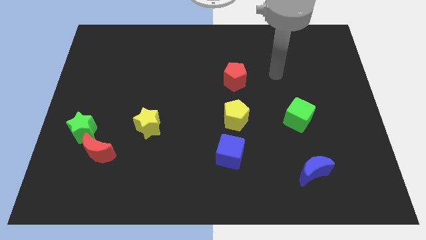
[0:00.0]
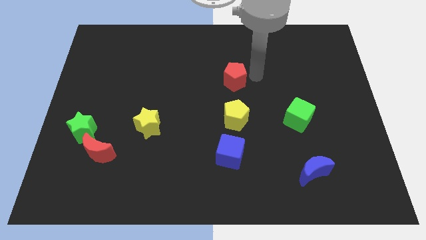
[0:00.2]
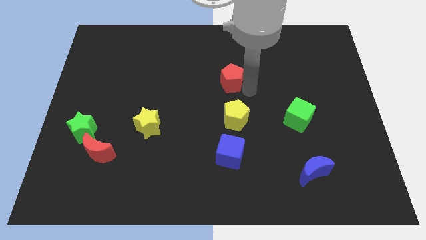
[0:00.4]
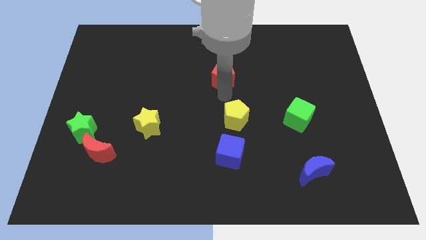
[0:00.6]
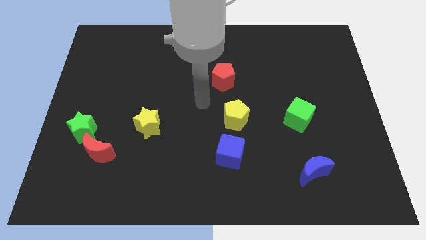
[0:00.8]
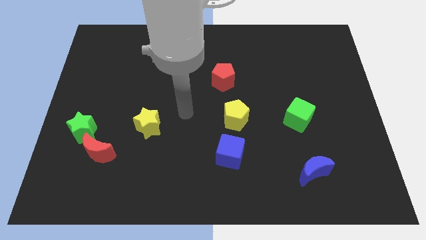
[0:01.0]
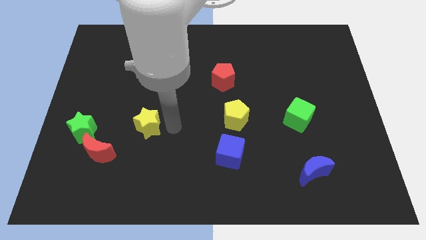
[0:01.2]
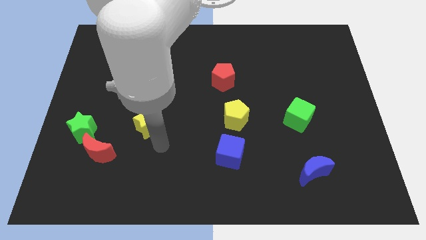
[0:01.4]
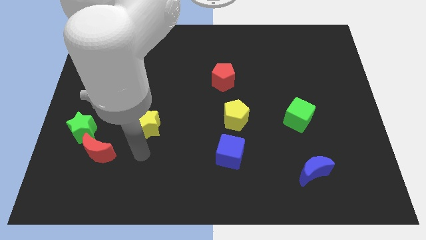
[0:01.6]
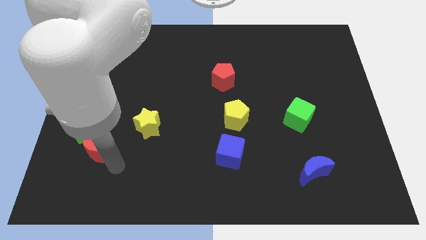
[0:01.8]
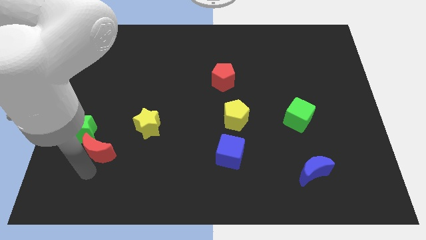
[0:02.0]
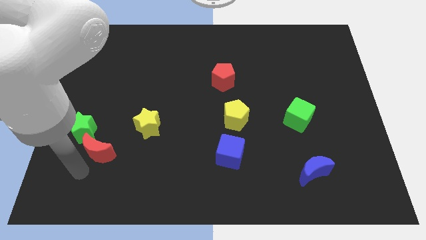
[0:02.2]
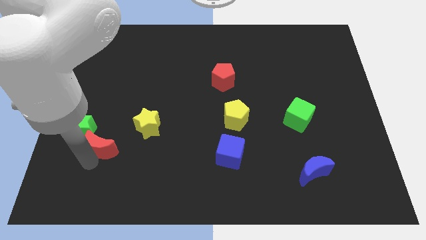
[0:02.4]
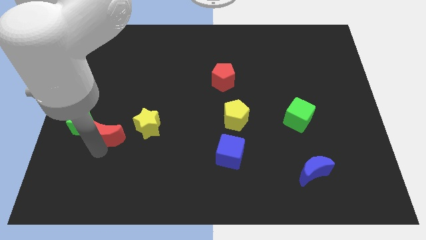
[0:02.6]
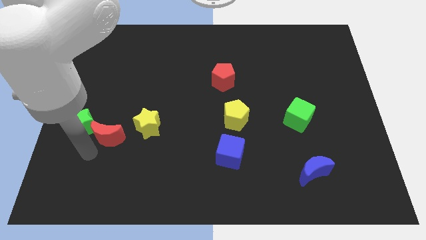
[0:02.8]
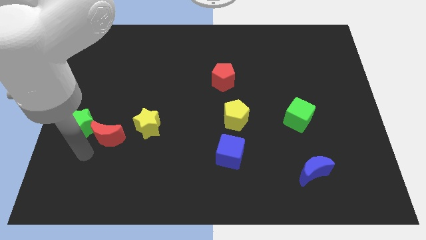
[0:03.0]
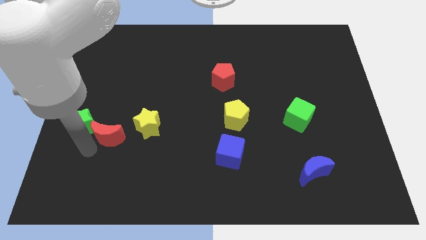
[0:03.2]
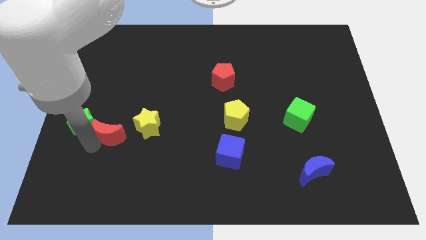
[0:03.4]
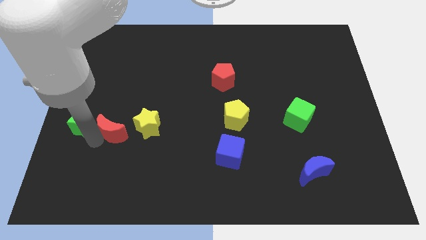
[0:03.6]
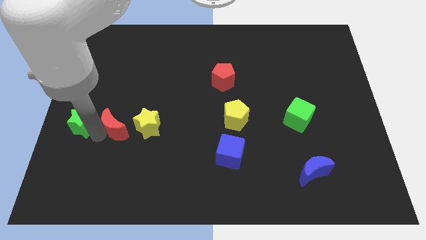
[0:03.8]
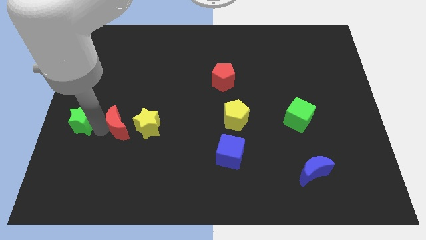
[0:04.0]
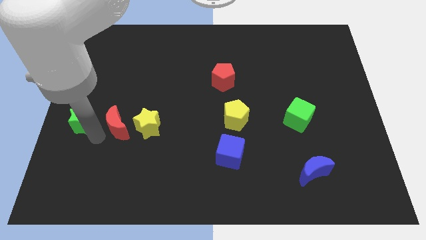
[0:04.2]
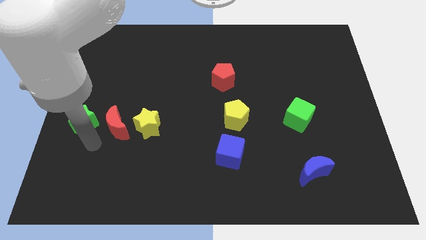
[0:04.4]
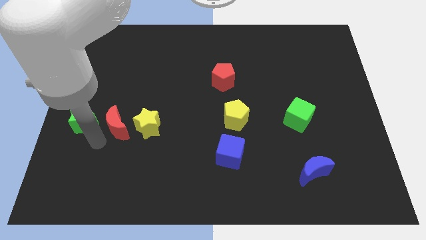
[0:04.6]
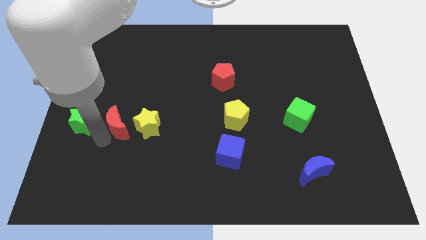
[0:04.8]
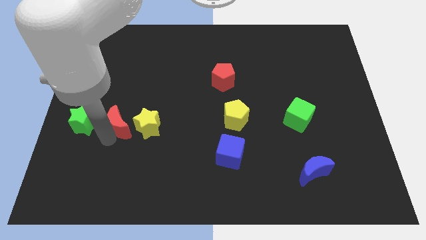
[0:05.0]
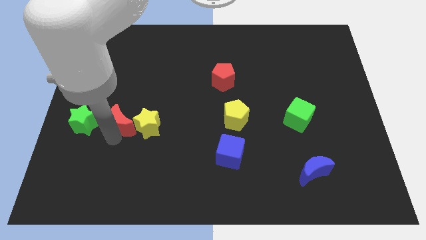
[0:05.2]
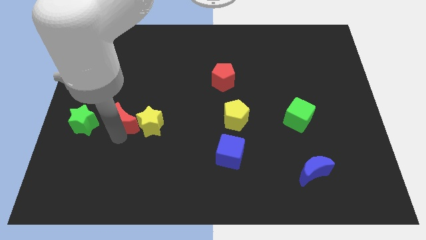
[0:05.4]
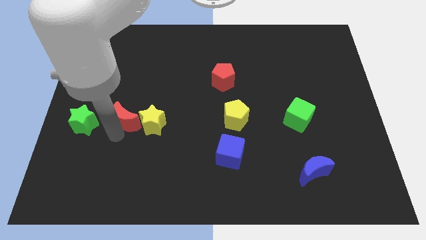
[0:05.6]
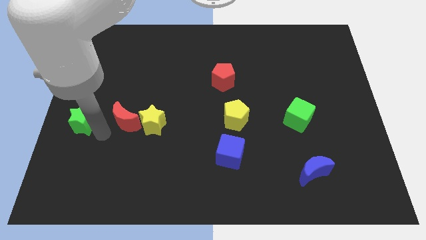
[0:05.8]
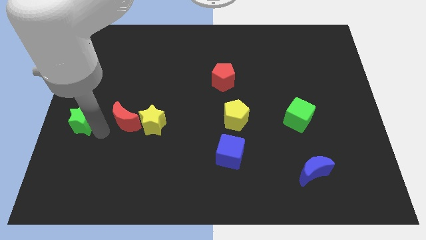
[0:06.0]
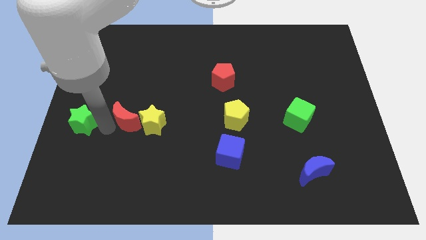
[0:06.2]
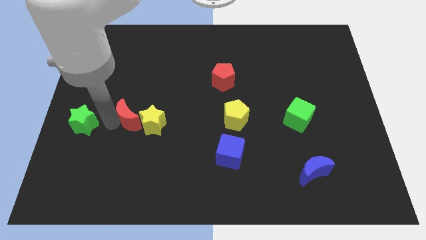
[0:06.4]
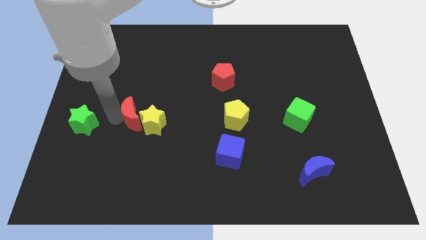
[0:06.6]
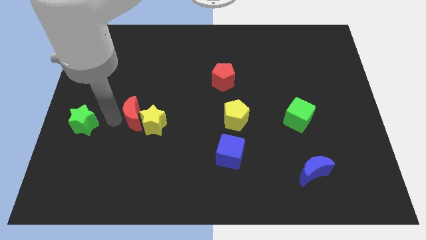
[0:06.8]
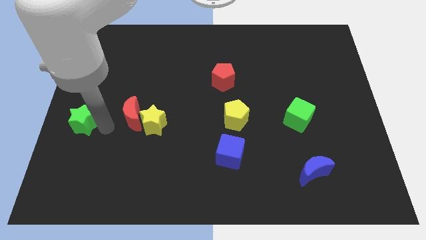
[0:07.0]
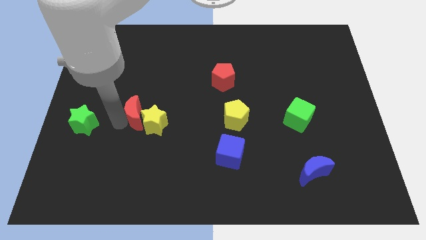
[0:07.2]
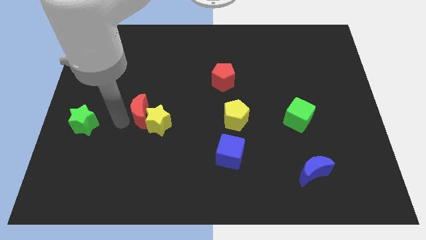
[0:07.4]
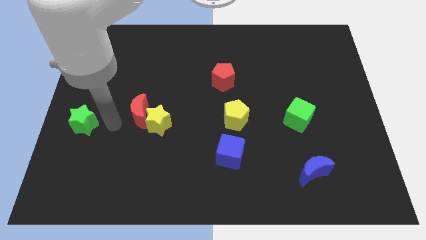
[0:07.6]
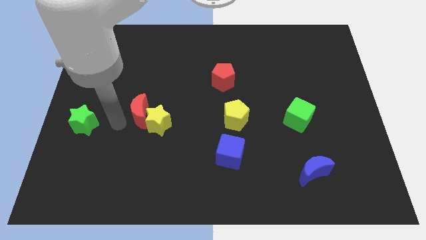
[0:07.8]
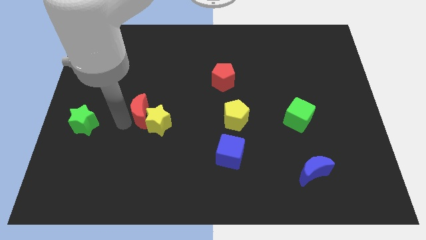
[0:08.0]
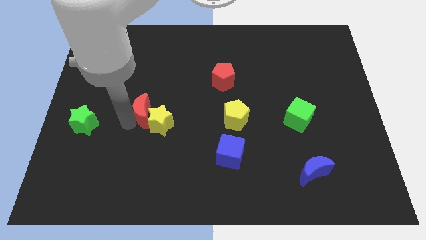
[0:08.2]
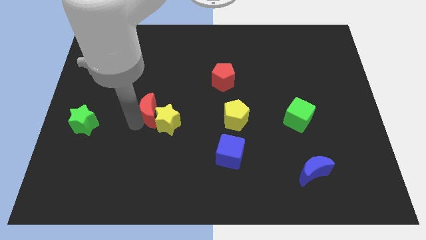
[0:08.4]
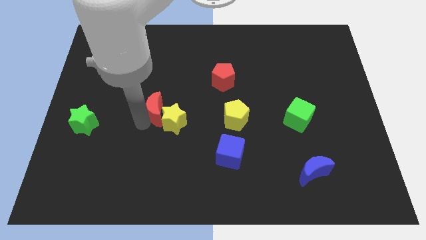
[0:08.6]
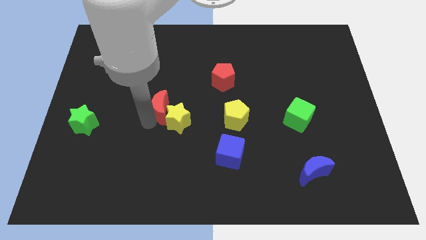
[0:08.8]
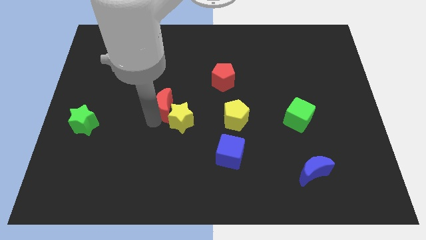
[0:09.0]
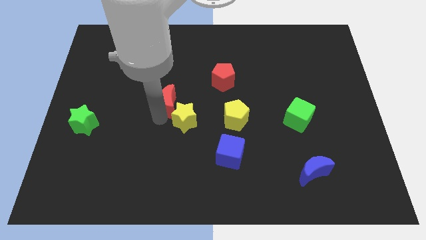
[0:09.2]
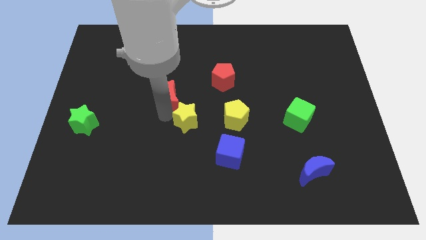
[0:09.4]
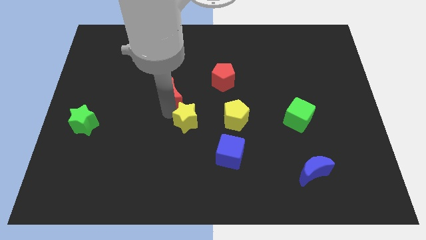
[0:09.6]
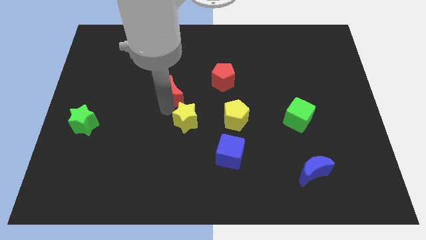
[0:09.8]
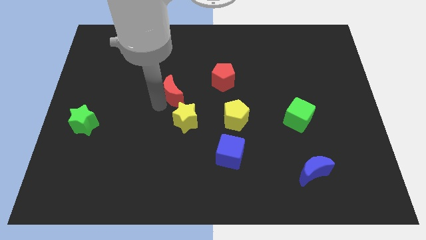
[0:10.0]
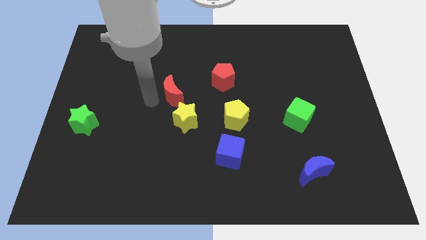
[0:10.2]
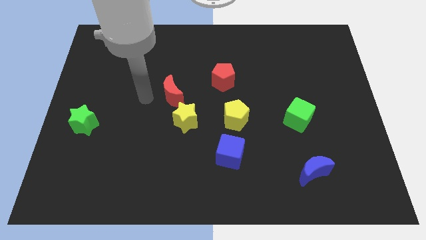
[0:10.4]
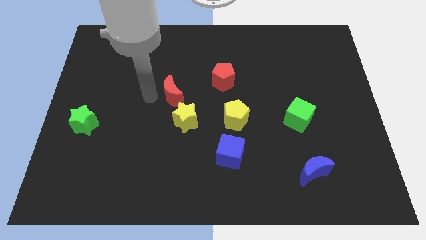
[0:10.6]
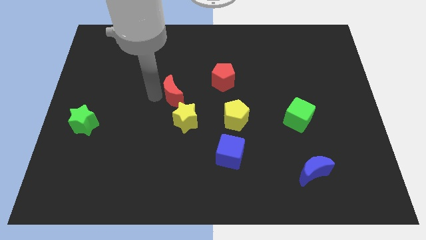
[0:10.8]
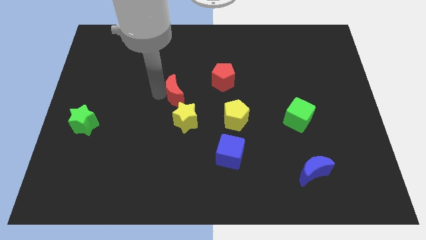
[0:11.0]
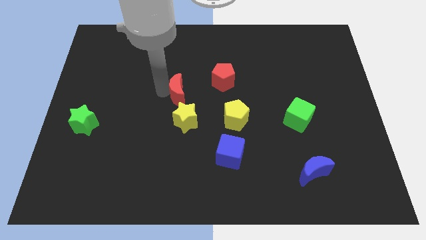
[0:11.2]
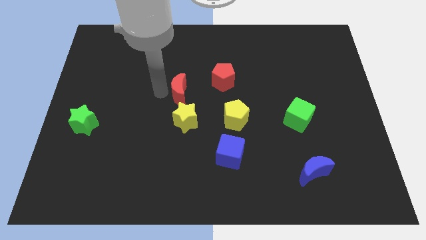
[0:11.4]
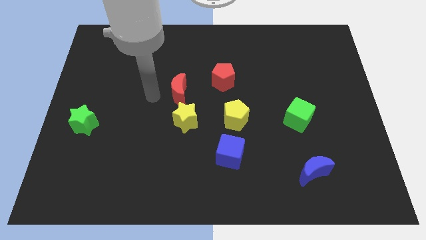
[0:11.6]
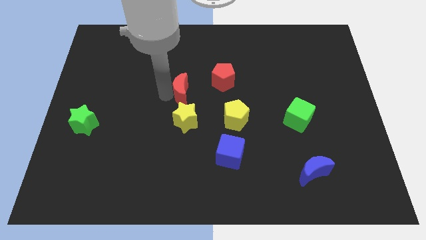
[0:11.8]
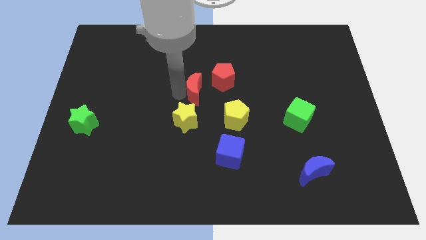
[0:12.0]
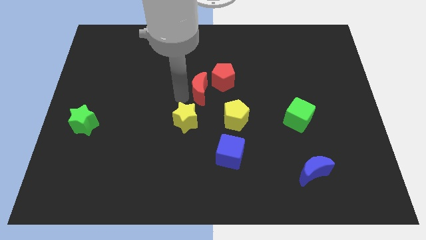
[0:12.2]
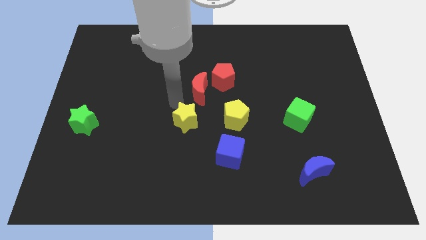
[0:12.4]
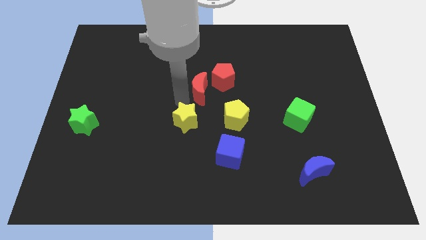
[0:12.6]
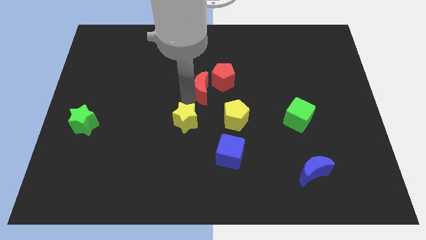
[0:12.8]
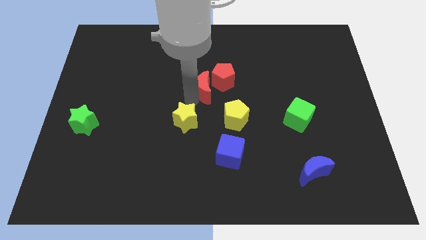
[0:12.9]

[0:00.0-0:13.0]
move the red moon to the red pentagon

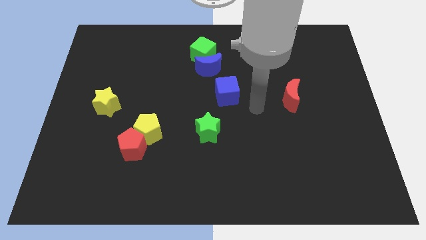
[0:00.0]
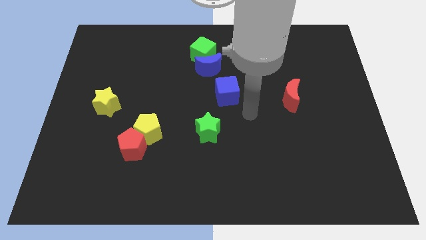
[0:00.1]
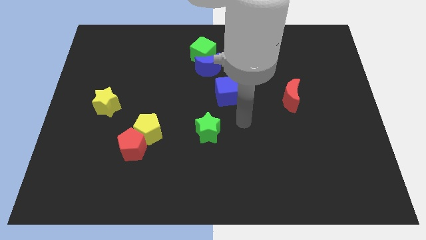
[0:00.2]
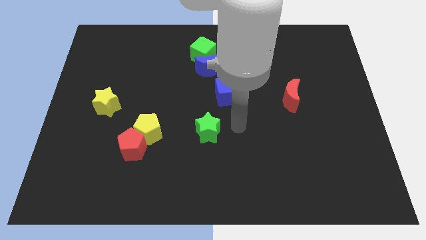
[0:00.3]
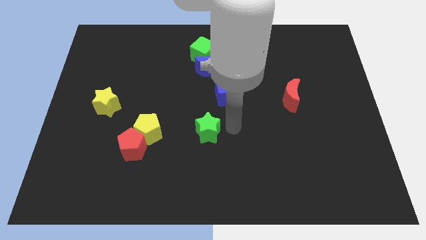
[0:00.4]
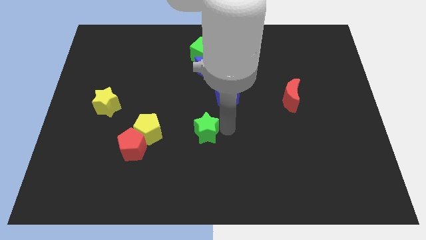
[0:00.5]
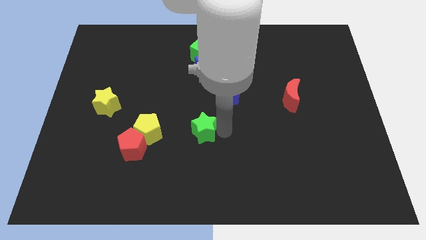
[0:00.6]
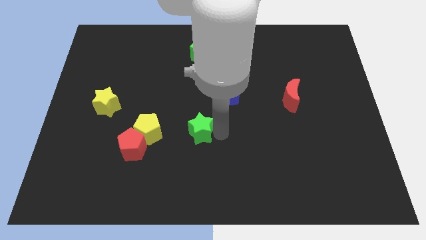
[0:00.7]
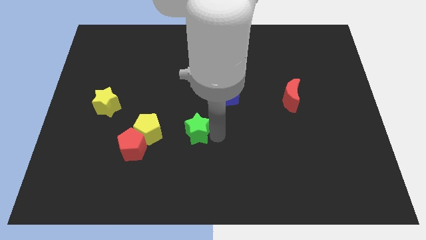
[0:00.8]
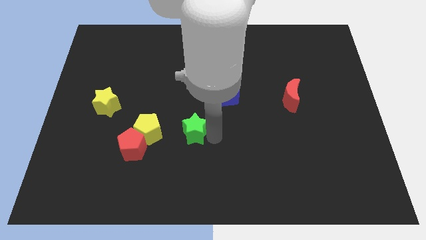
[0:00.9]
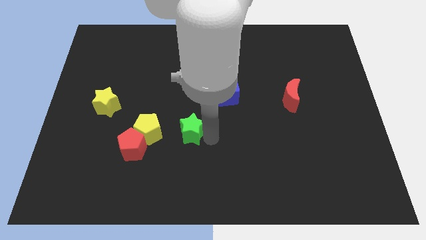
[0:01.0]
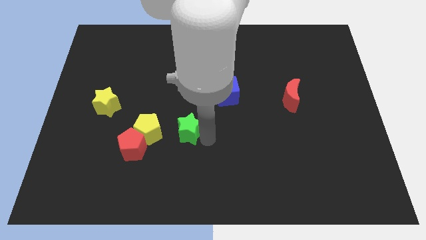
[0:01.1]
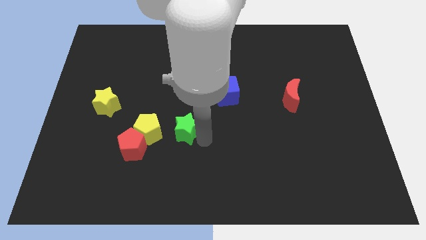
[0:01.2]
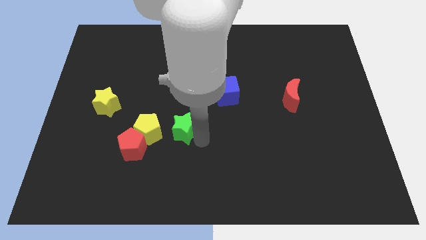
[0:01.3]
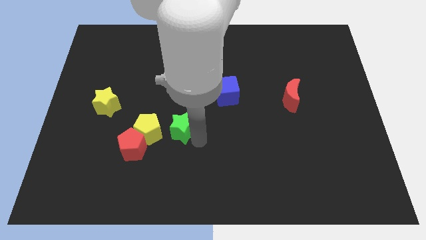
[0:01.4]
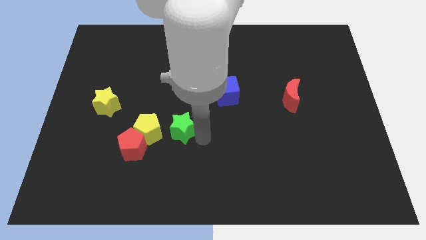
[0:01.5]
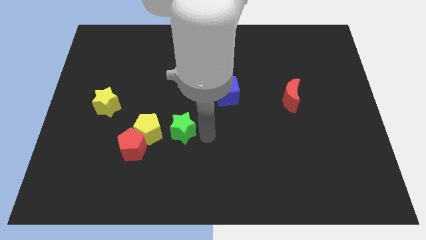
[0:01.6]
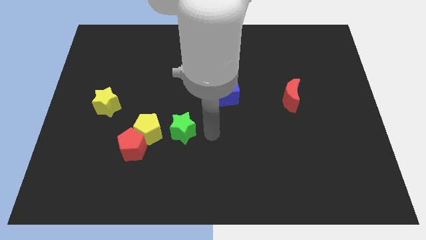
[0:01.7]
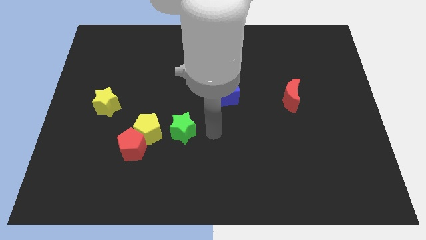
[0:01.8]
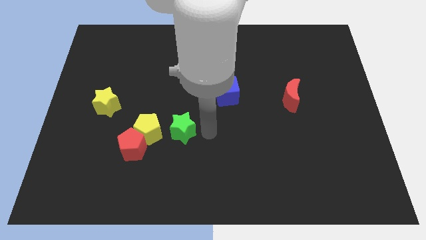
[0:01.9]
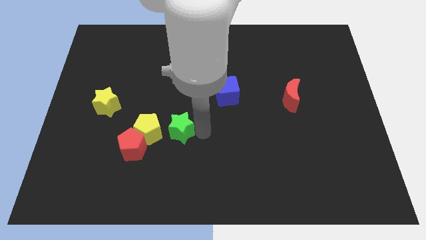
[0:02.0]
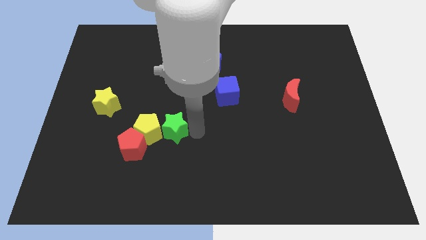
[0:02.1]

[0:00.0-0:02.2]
put the green star next to the yellow pentagon
